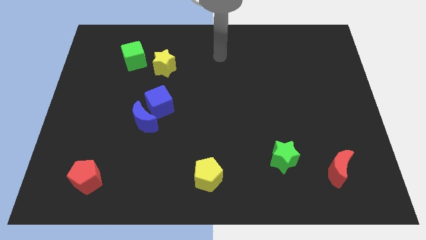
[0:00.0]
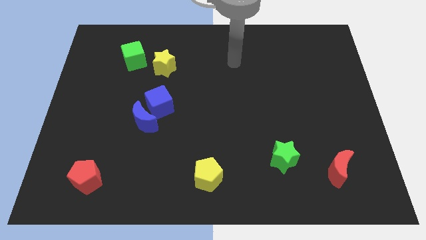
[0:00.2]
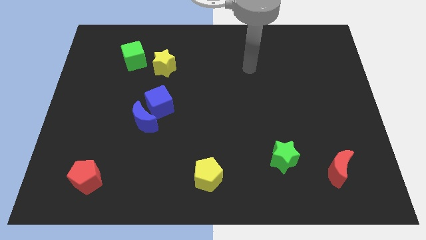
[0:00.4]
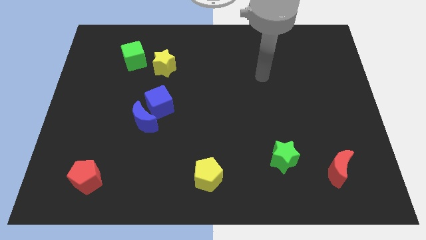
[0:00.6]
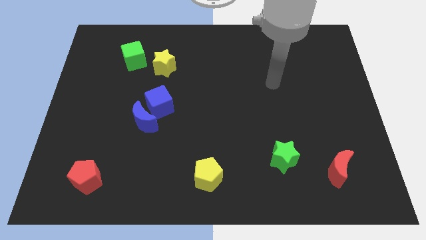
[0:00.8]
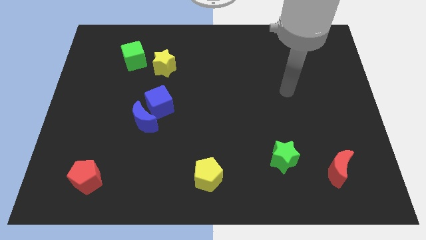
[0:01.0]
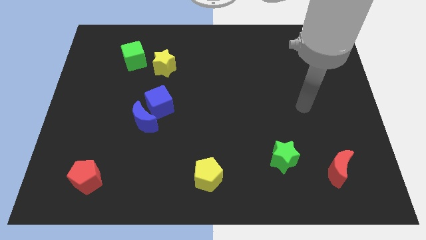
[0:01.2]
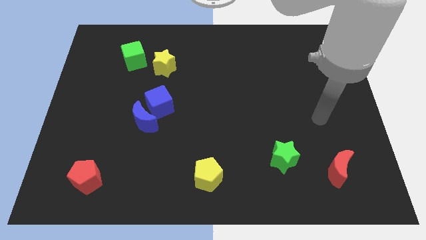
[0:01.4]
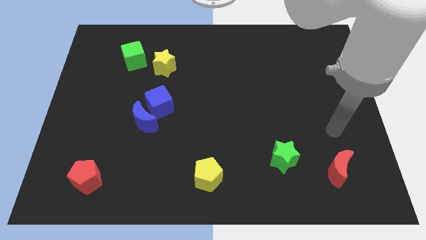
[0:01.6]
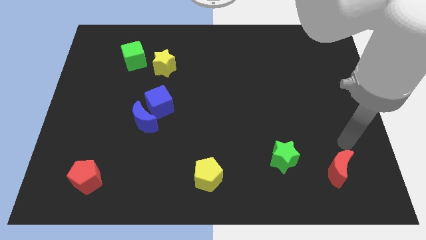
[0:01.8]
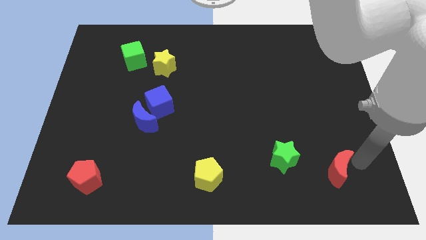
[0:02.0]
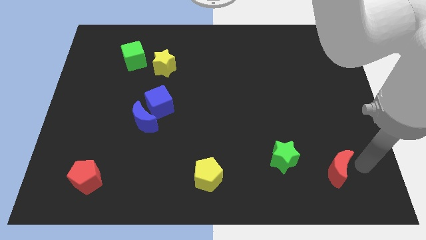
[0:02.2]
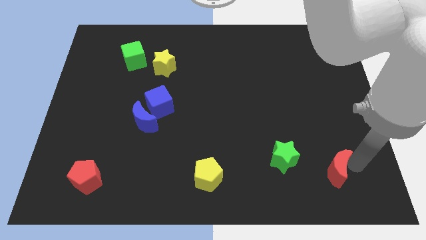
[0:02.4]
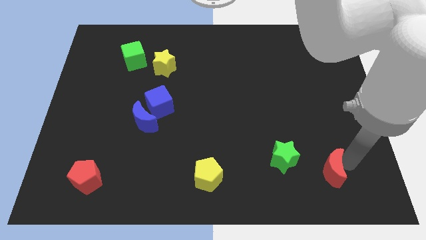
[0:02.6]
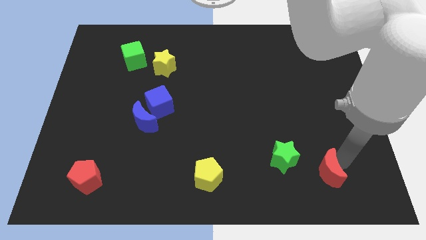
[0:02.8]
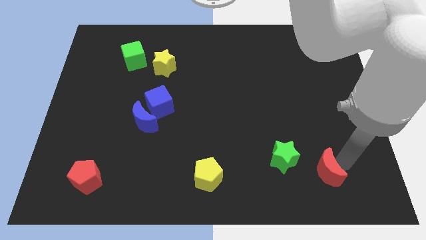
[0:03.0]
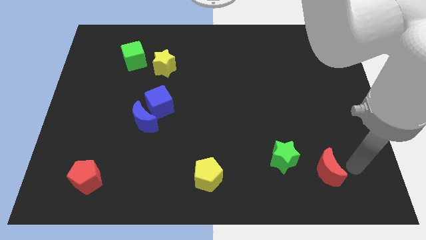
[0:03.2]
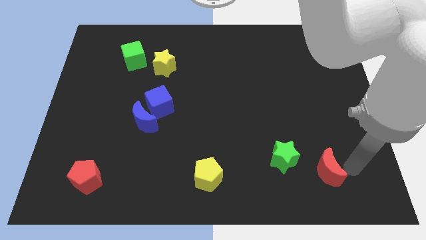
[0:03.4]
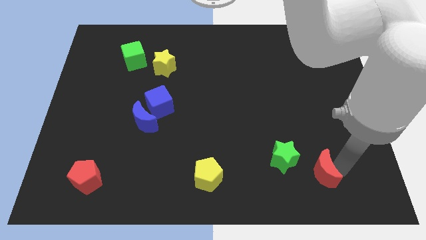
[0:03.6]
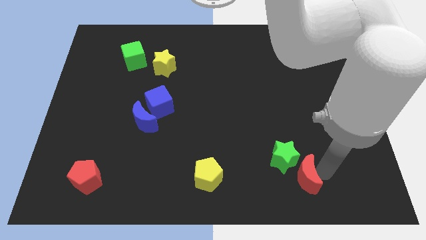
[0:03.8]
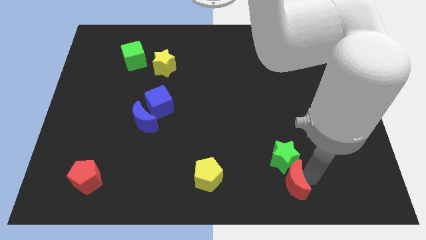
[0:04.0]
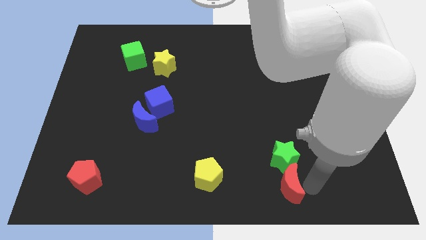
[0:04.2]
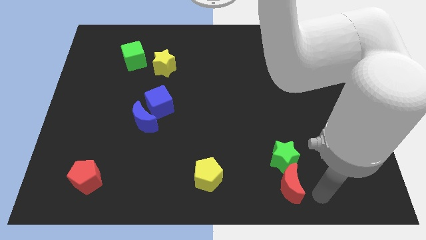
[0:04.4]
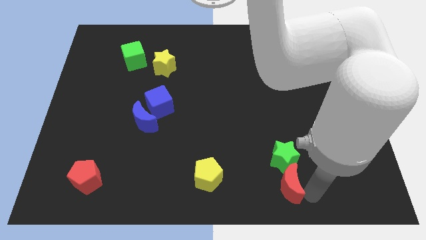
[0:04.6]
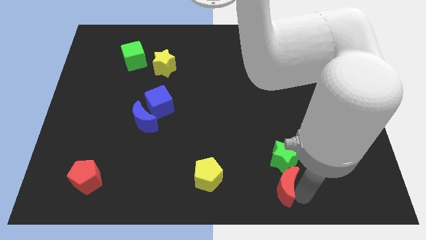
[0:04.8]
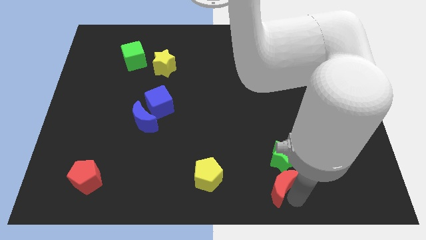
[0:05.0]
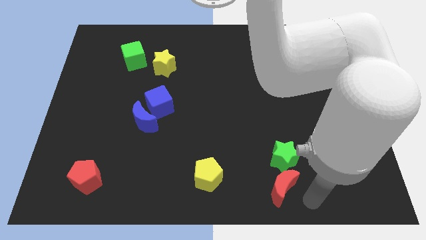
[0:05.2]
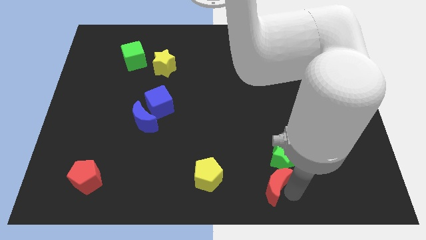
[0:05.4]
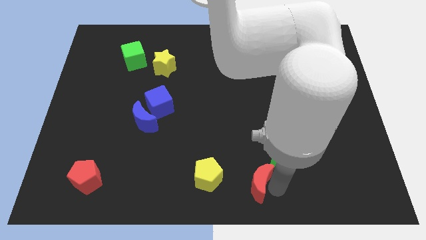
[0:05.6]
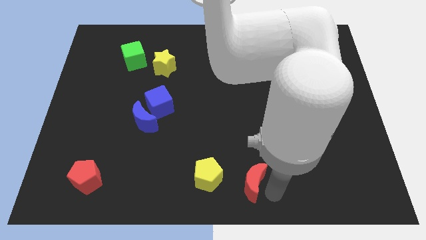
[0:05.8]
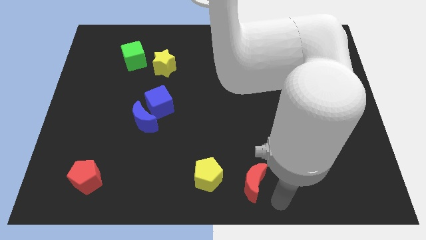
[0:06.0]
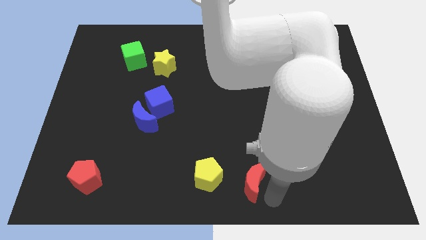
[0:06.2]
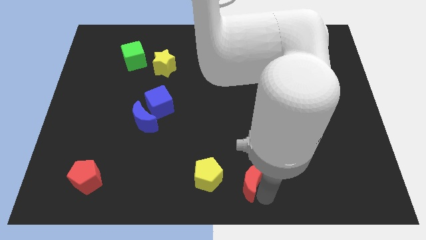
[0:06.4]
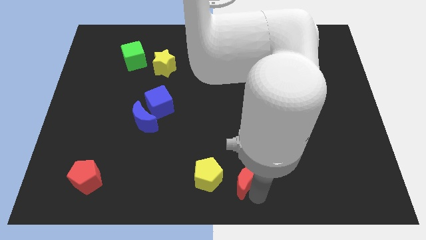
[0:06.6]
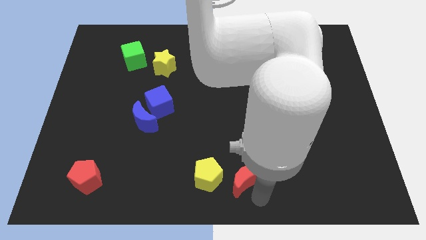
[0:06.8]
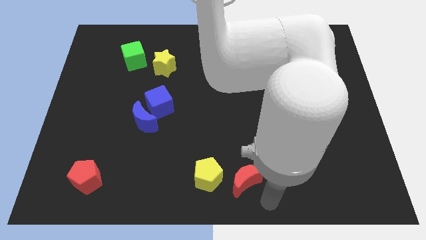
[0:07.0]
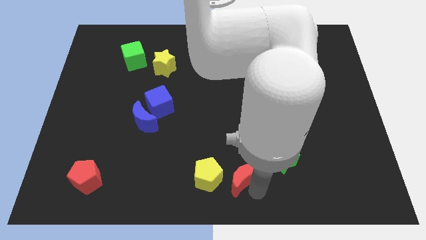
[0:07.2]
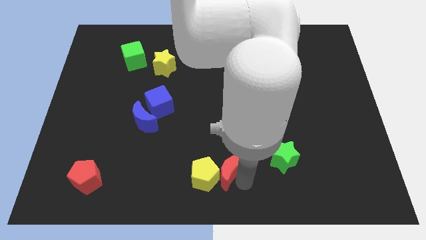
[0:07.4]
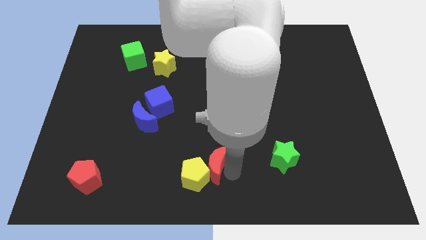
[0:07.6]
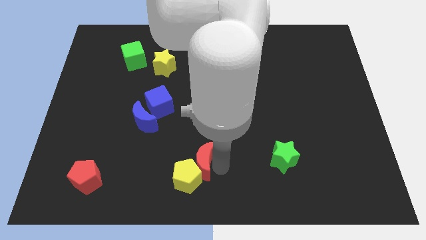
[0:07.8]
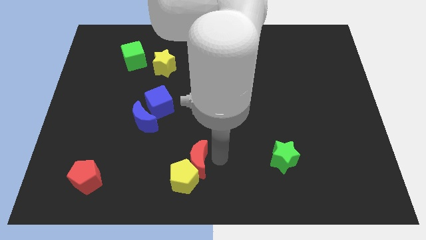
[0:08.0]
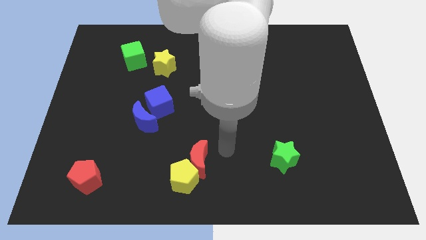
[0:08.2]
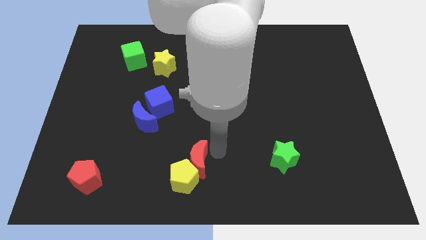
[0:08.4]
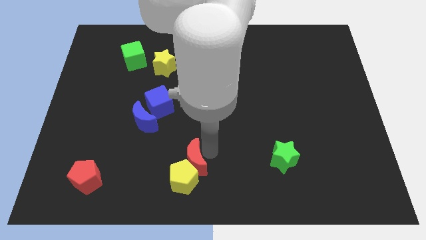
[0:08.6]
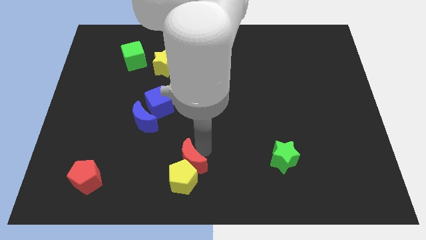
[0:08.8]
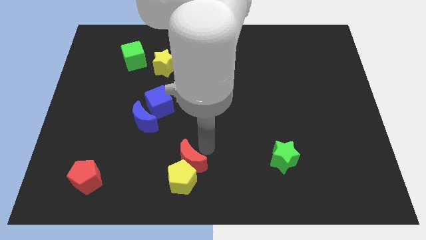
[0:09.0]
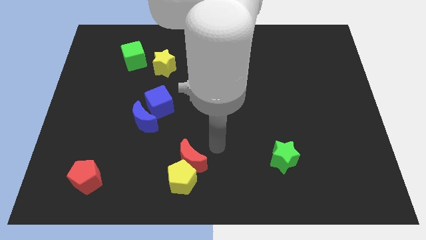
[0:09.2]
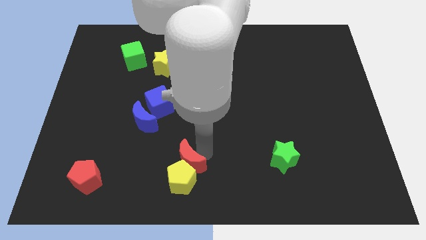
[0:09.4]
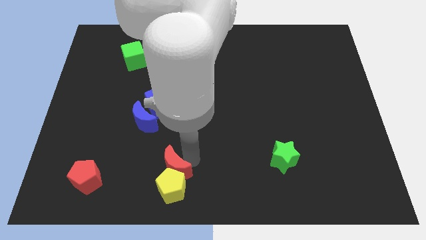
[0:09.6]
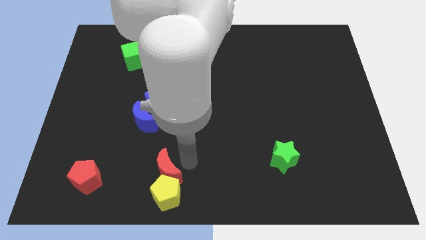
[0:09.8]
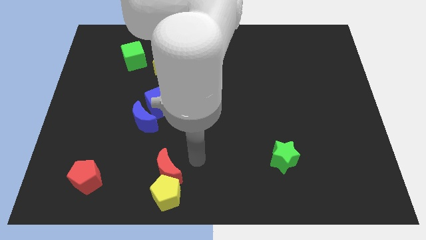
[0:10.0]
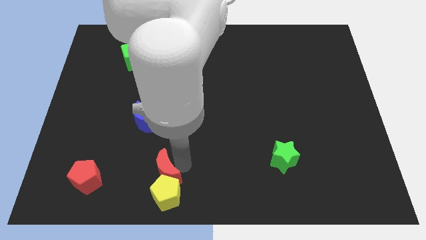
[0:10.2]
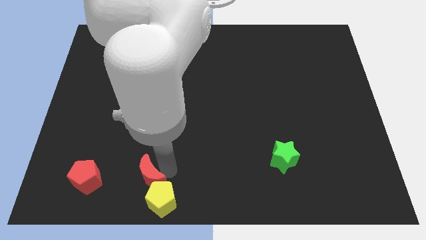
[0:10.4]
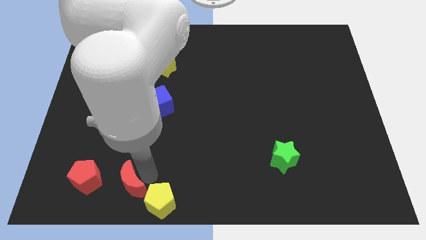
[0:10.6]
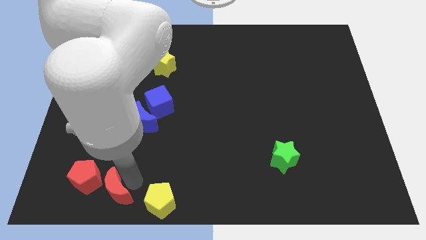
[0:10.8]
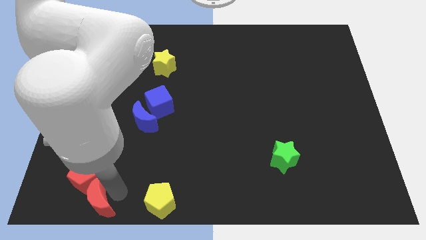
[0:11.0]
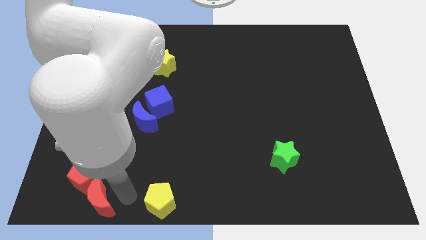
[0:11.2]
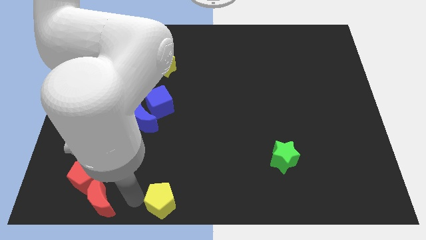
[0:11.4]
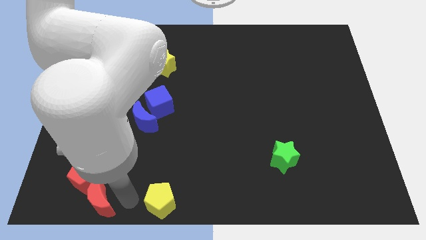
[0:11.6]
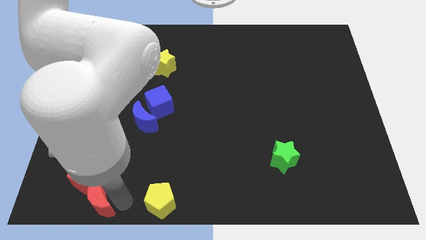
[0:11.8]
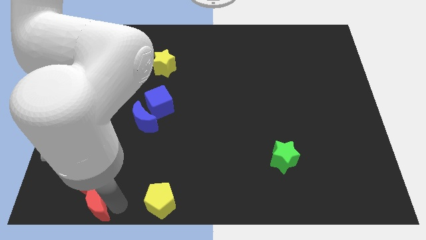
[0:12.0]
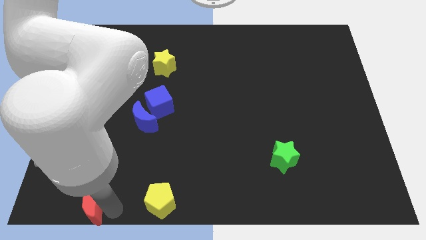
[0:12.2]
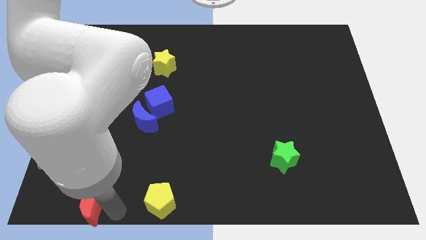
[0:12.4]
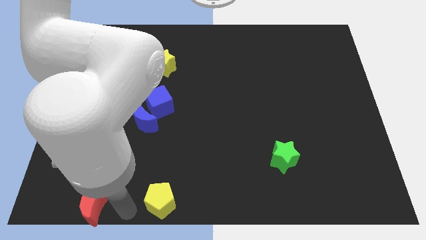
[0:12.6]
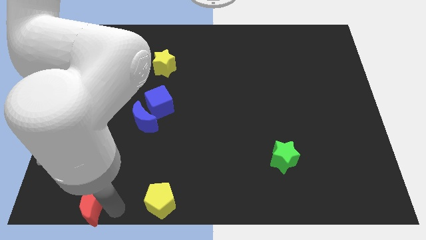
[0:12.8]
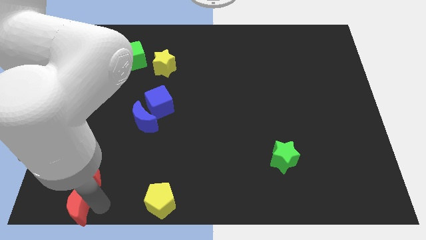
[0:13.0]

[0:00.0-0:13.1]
move the red moon to the bottom left corner
